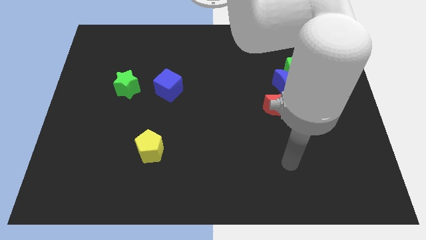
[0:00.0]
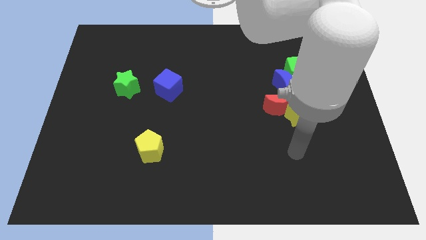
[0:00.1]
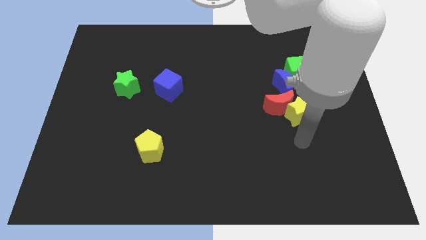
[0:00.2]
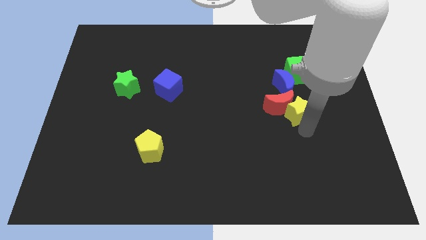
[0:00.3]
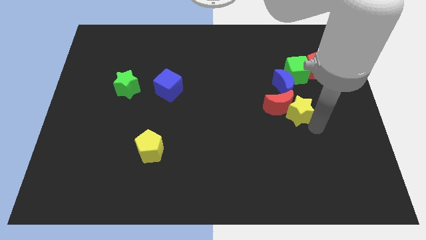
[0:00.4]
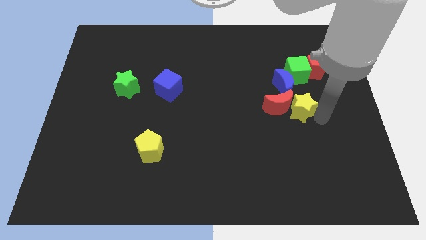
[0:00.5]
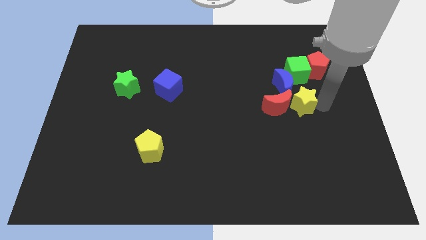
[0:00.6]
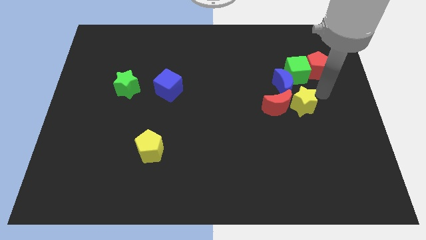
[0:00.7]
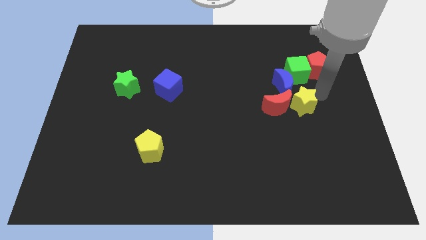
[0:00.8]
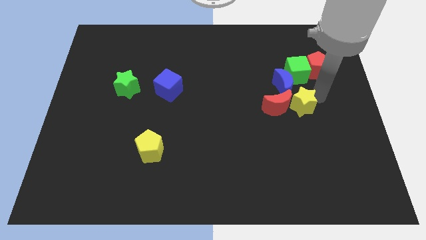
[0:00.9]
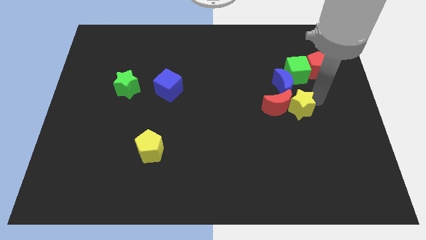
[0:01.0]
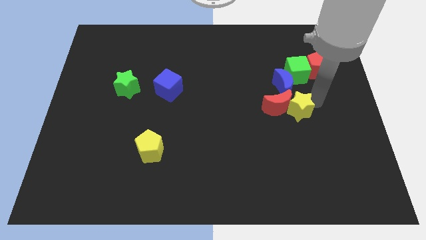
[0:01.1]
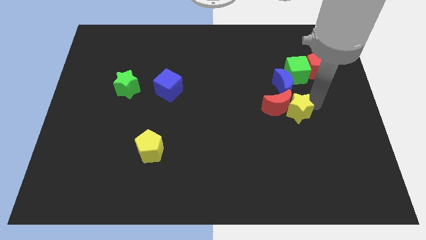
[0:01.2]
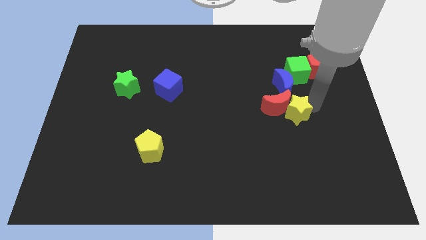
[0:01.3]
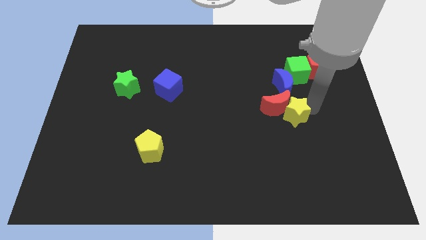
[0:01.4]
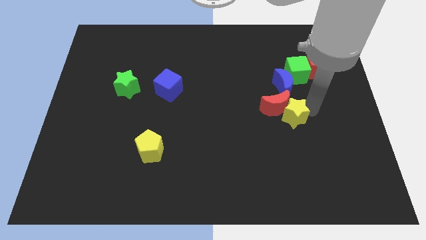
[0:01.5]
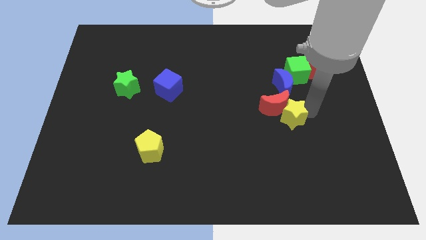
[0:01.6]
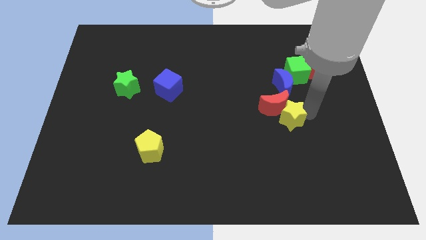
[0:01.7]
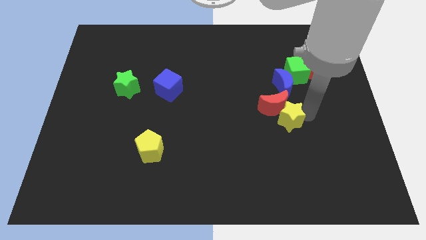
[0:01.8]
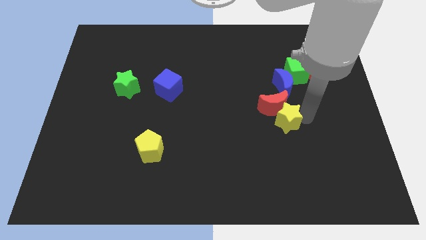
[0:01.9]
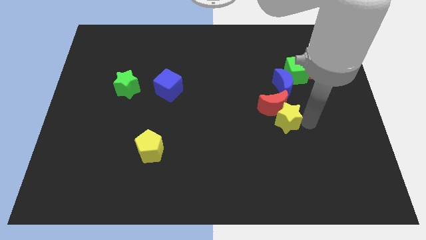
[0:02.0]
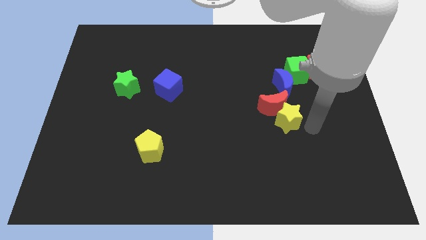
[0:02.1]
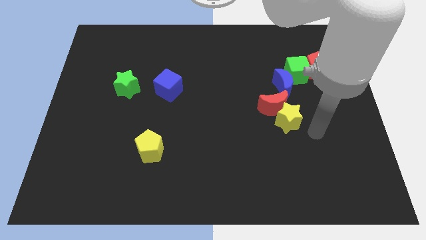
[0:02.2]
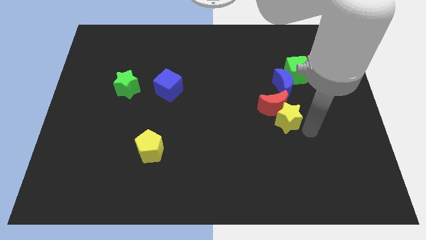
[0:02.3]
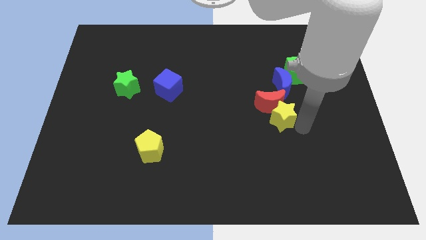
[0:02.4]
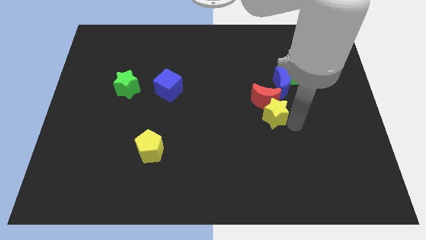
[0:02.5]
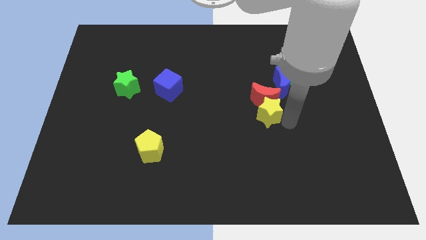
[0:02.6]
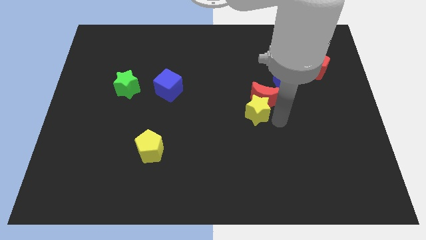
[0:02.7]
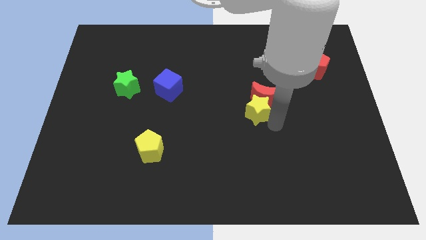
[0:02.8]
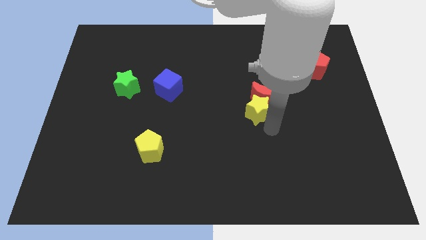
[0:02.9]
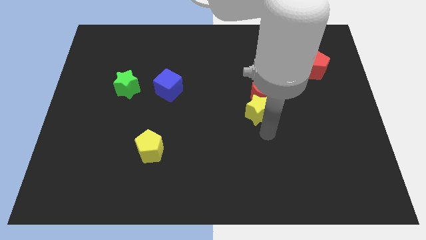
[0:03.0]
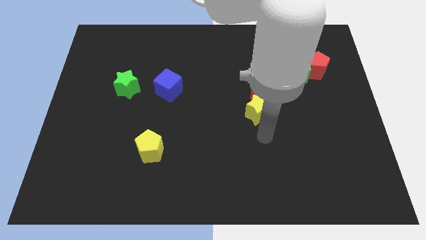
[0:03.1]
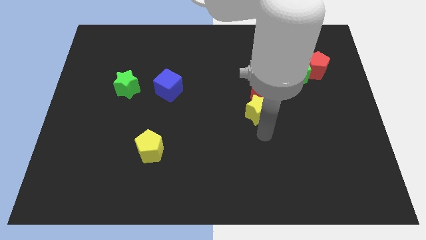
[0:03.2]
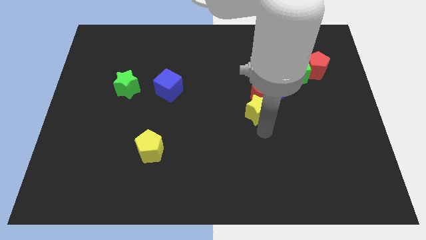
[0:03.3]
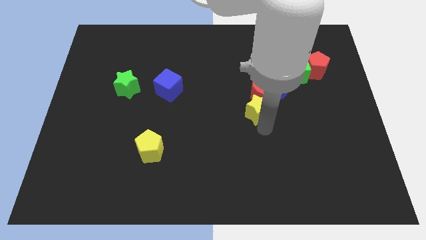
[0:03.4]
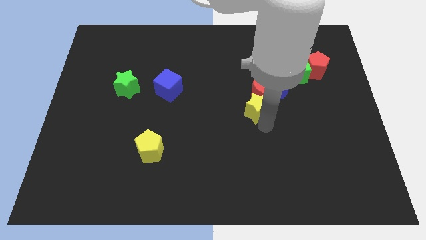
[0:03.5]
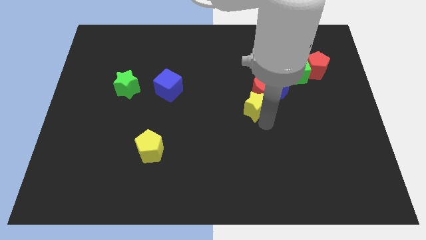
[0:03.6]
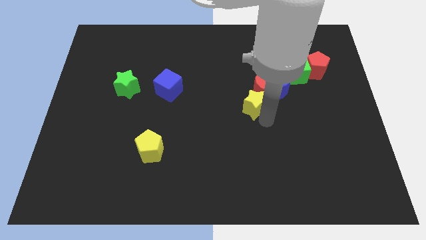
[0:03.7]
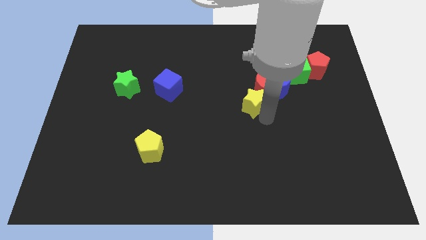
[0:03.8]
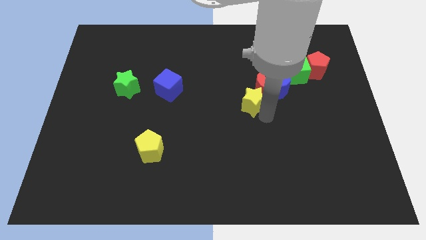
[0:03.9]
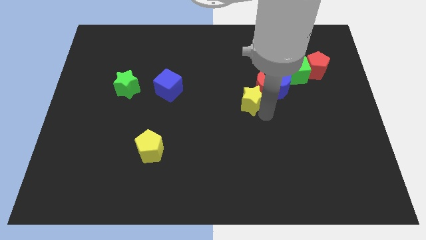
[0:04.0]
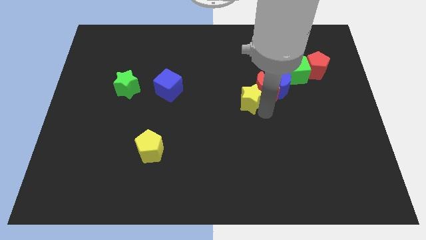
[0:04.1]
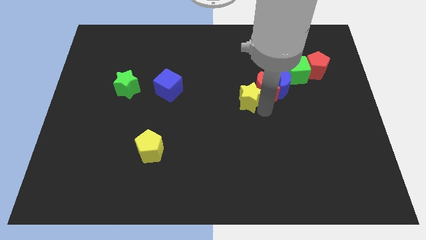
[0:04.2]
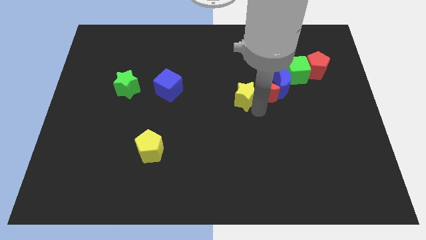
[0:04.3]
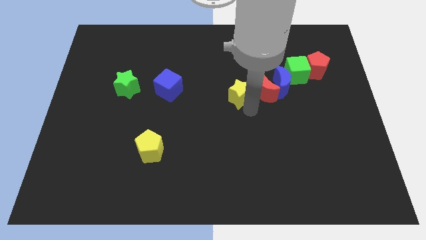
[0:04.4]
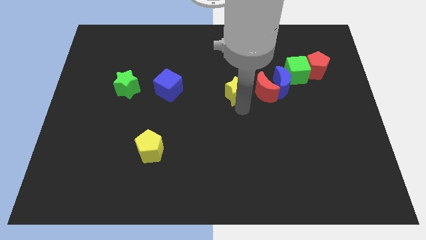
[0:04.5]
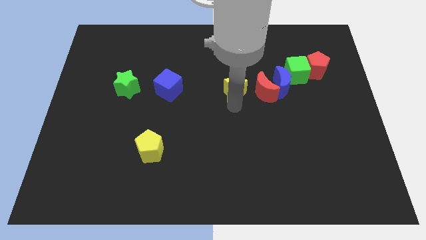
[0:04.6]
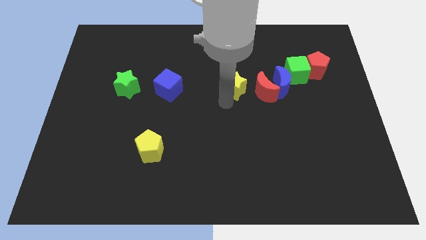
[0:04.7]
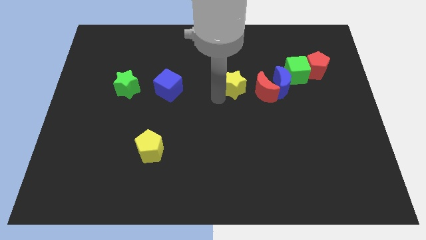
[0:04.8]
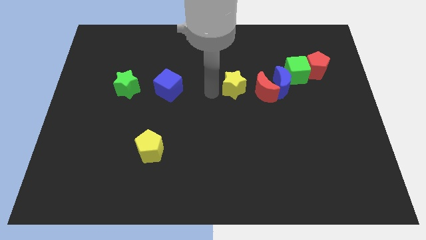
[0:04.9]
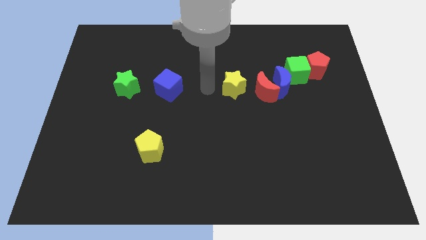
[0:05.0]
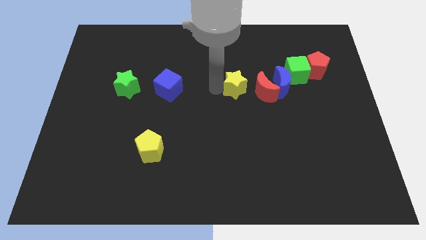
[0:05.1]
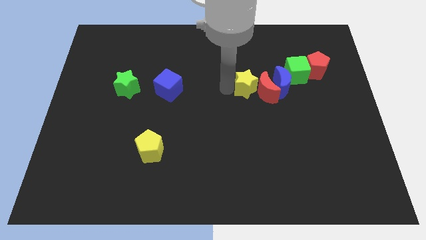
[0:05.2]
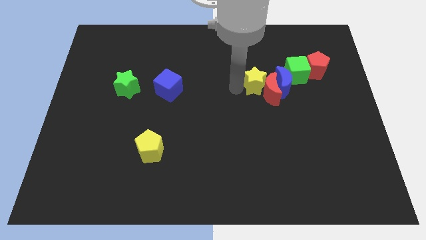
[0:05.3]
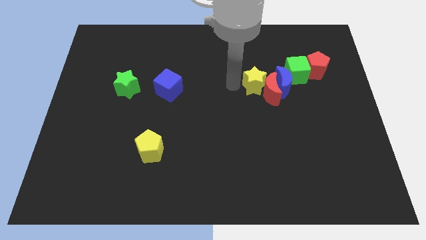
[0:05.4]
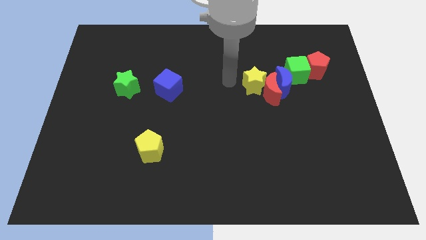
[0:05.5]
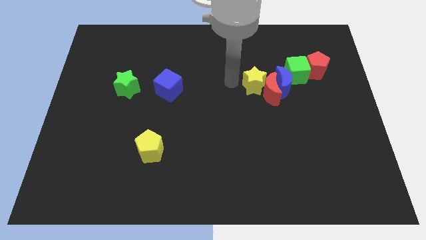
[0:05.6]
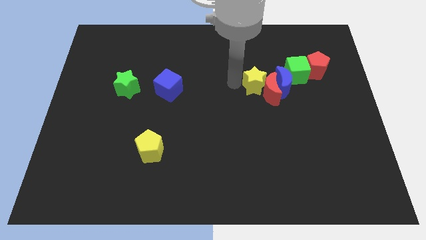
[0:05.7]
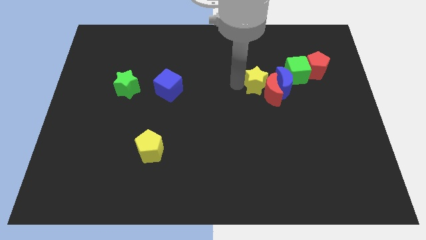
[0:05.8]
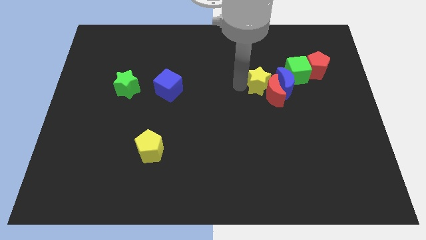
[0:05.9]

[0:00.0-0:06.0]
slide the yellow star to the bottom left side of the green cube

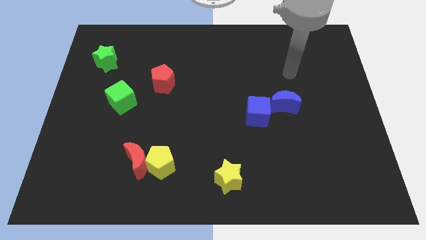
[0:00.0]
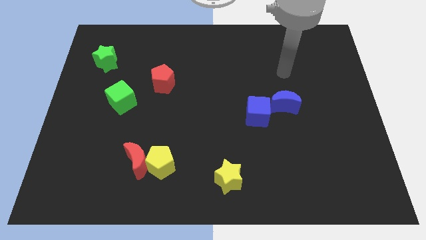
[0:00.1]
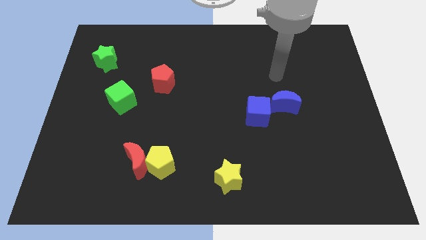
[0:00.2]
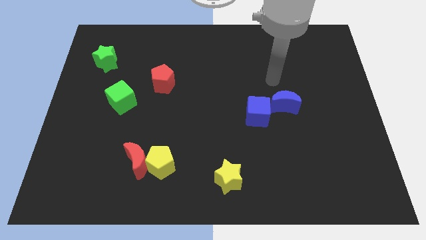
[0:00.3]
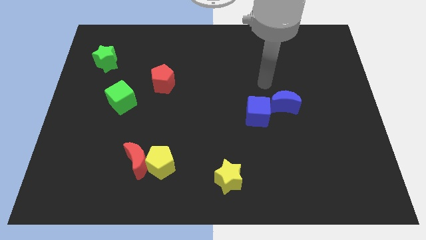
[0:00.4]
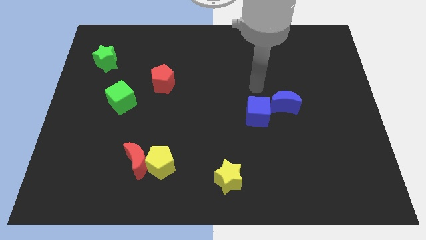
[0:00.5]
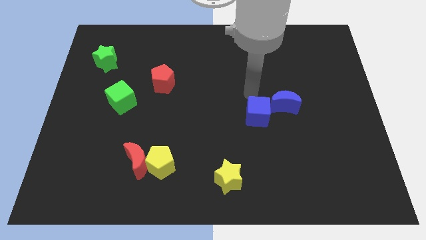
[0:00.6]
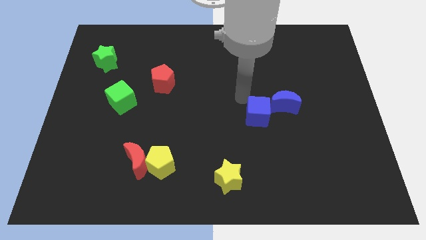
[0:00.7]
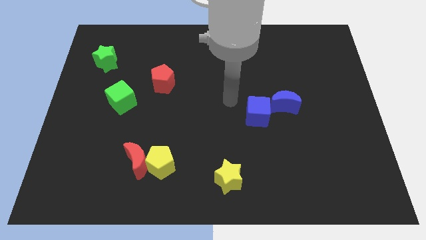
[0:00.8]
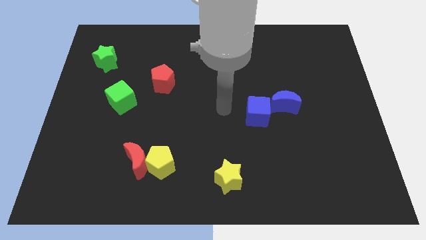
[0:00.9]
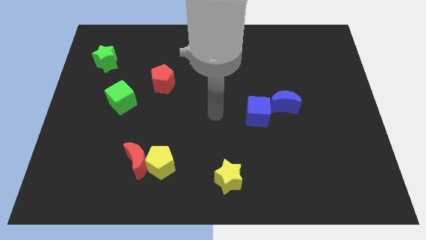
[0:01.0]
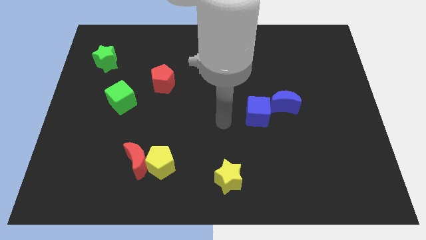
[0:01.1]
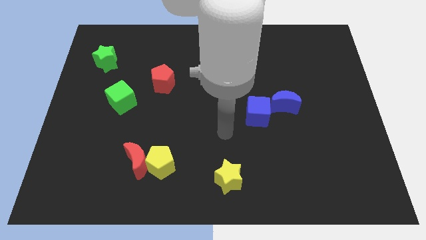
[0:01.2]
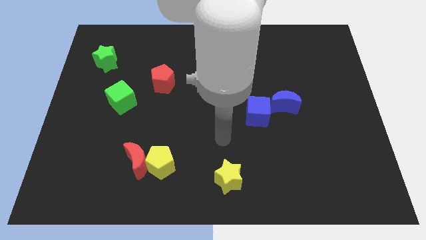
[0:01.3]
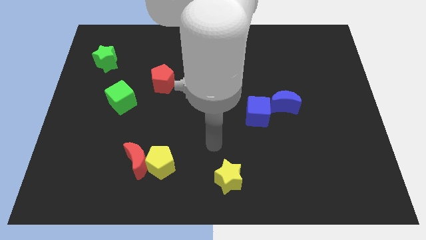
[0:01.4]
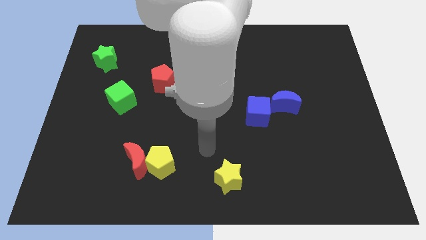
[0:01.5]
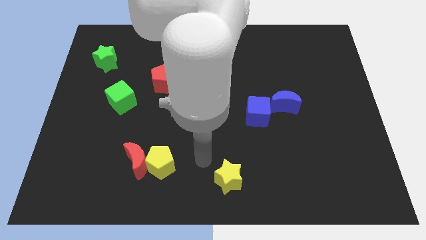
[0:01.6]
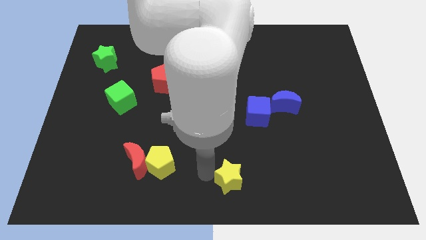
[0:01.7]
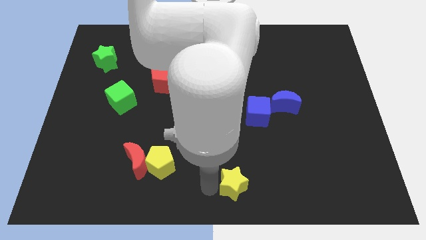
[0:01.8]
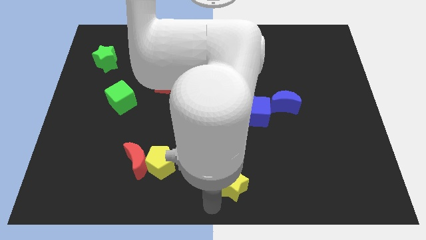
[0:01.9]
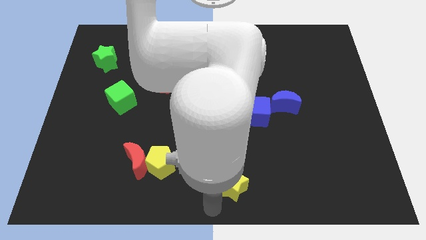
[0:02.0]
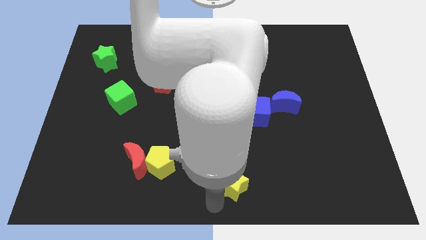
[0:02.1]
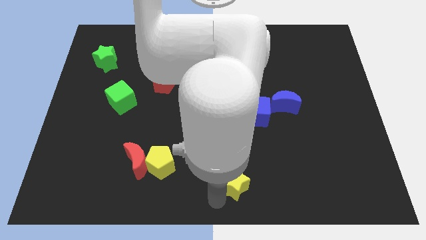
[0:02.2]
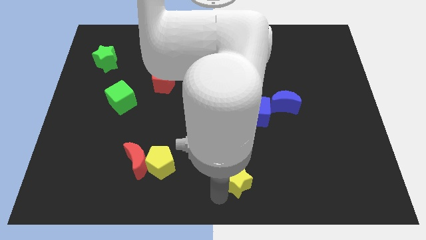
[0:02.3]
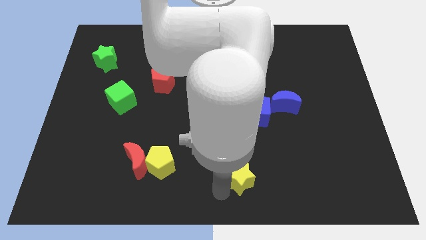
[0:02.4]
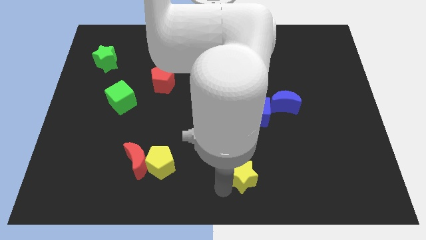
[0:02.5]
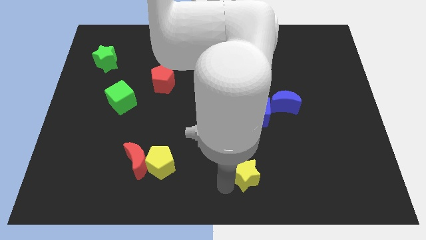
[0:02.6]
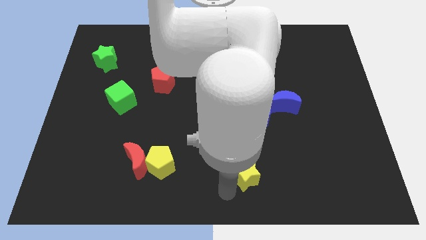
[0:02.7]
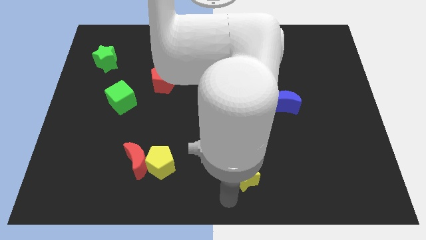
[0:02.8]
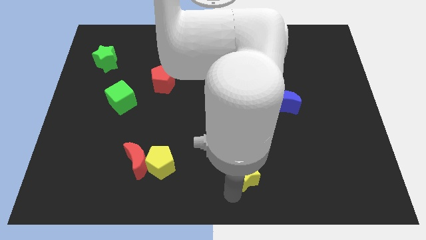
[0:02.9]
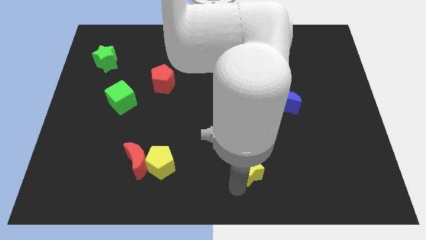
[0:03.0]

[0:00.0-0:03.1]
put the yellow star to the bottom side of the blue cube
